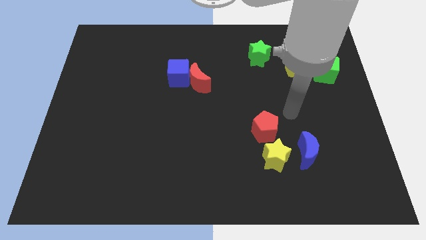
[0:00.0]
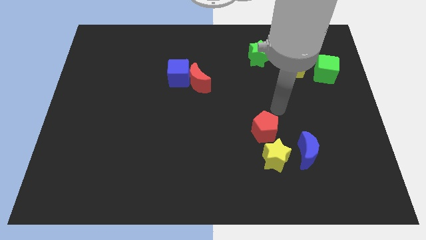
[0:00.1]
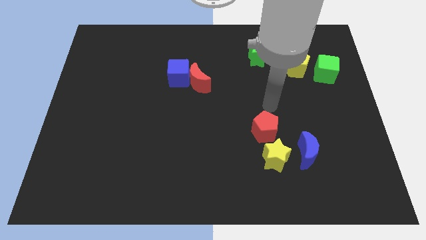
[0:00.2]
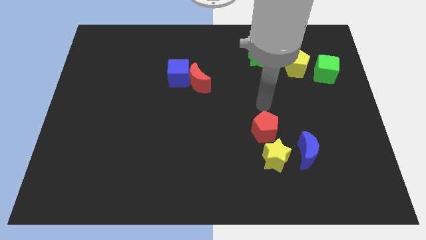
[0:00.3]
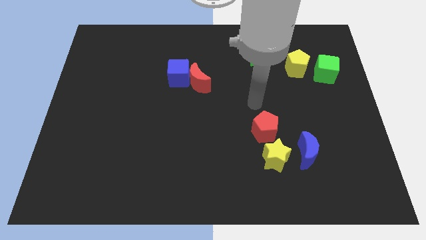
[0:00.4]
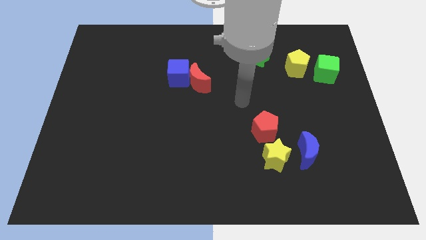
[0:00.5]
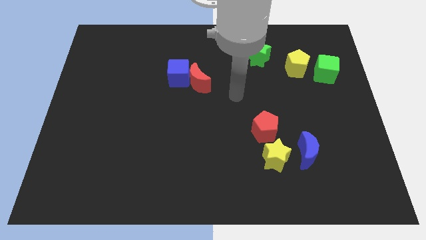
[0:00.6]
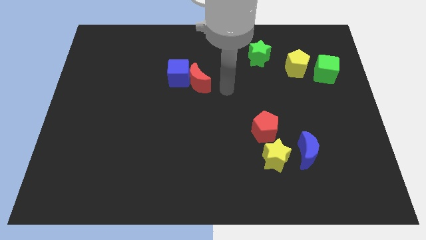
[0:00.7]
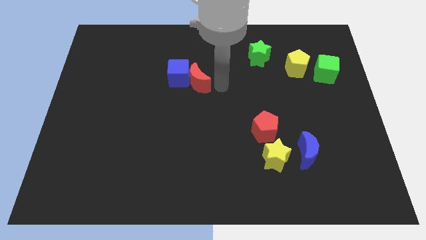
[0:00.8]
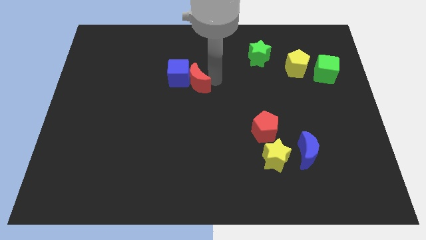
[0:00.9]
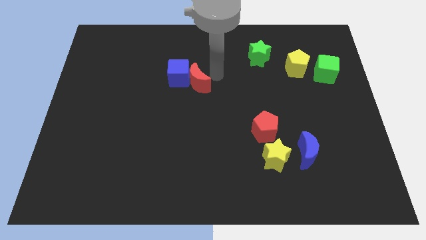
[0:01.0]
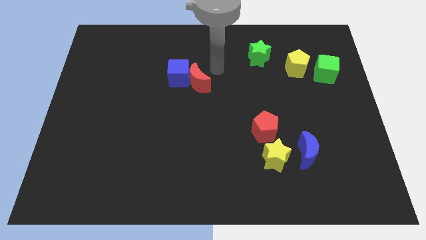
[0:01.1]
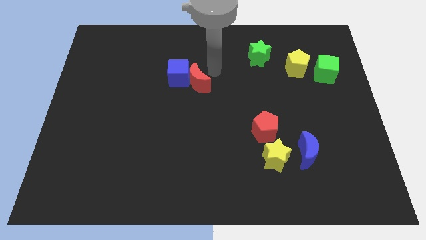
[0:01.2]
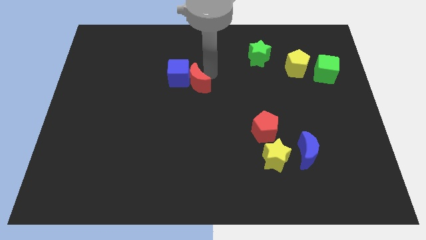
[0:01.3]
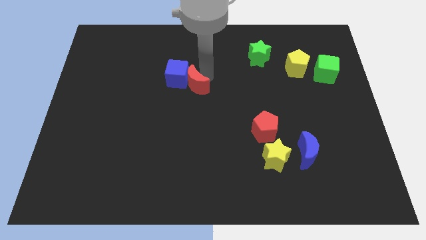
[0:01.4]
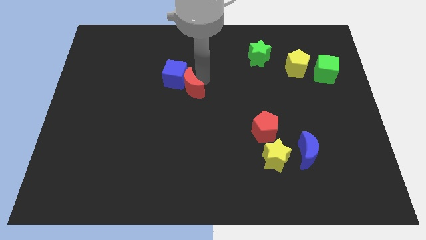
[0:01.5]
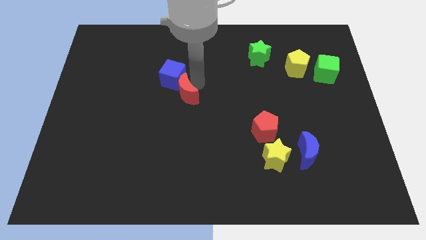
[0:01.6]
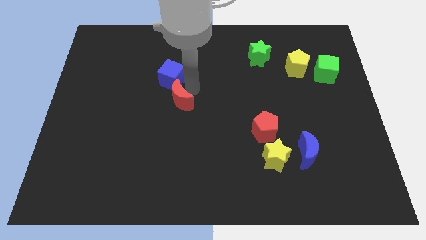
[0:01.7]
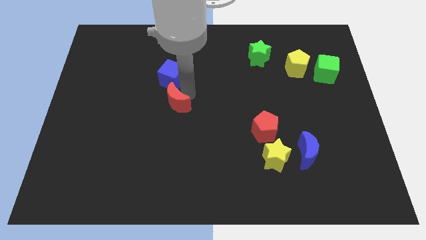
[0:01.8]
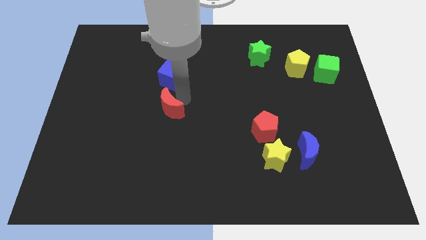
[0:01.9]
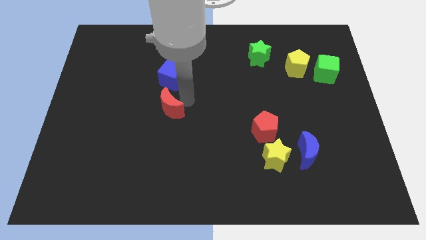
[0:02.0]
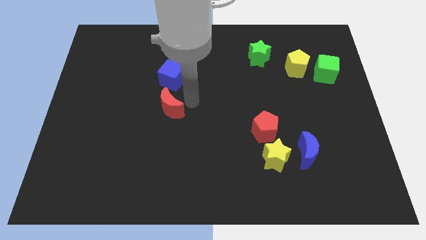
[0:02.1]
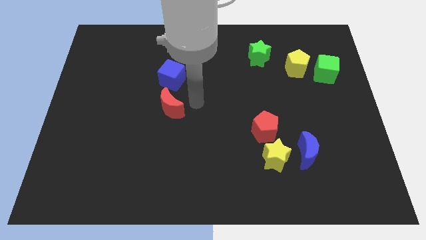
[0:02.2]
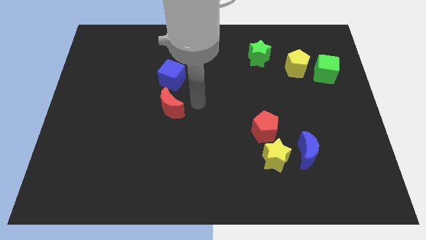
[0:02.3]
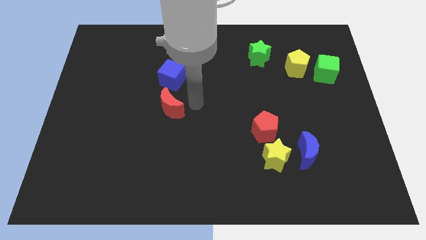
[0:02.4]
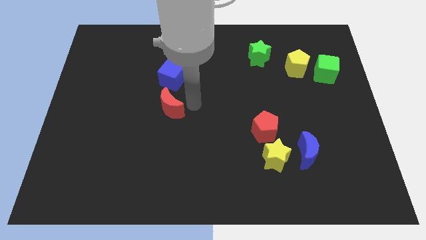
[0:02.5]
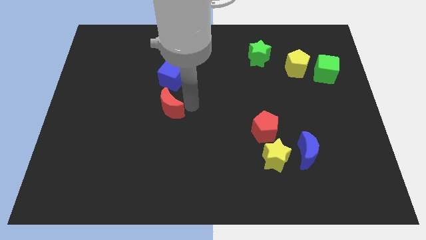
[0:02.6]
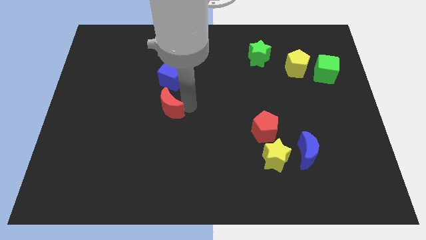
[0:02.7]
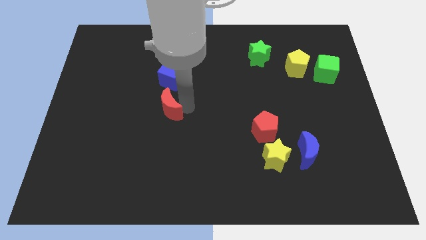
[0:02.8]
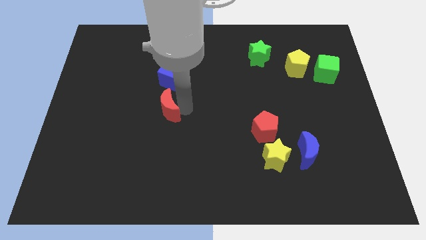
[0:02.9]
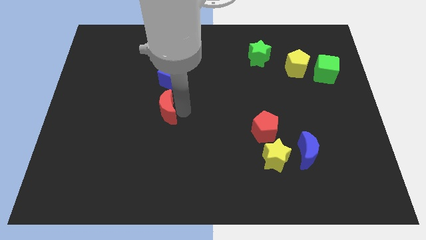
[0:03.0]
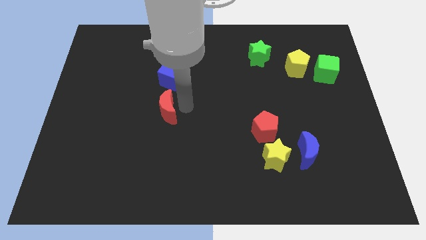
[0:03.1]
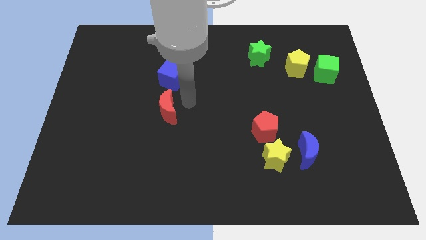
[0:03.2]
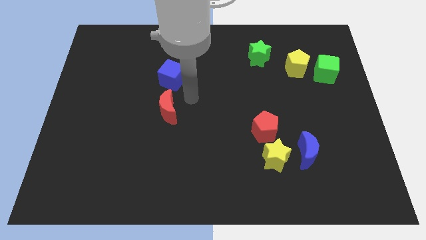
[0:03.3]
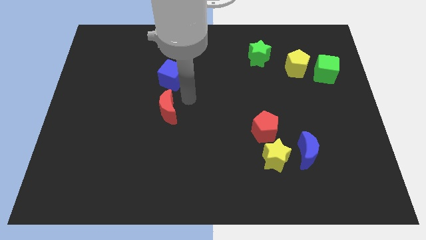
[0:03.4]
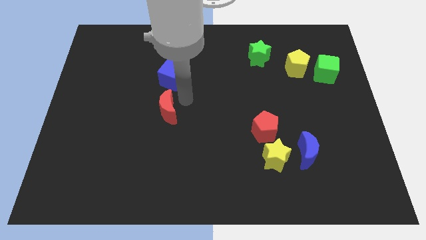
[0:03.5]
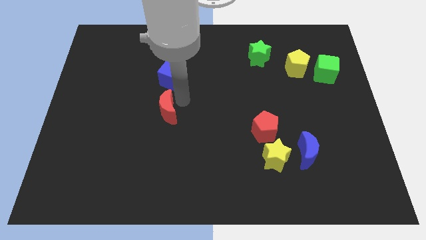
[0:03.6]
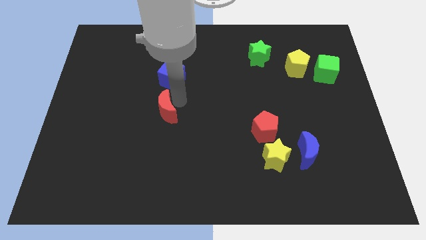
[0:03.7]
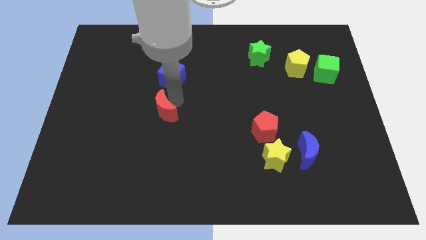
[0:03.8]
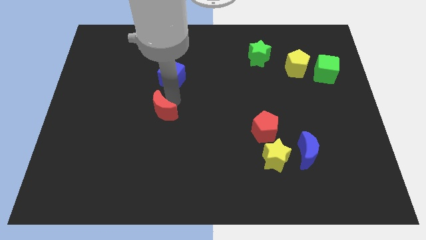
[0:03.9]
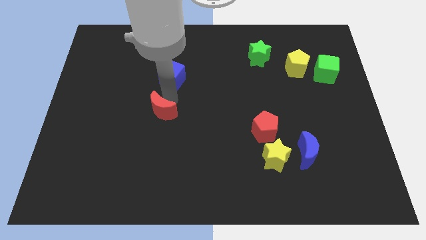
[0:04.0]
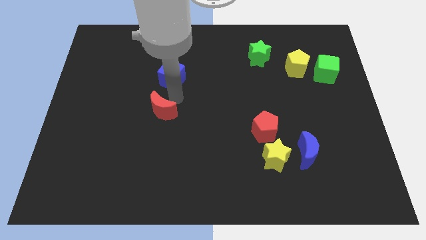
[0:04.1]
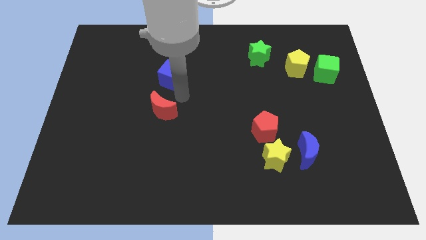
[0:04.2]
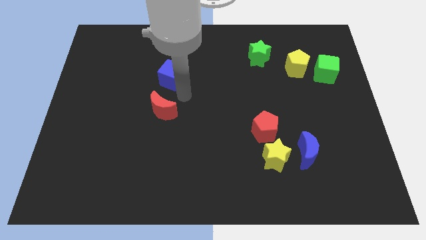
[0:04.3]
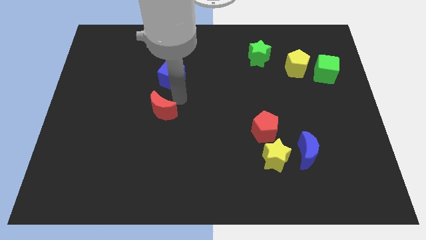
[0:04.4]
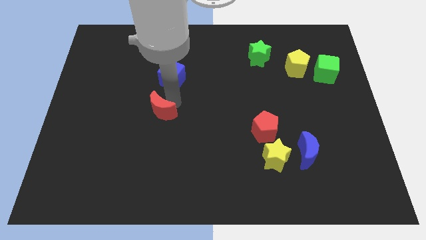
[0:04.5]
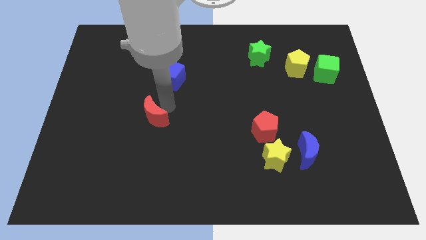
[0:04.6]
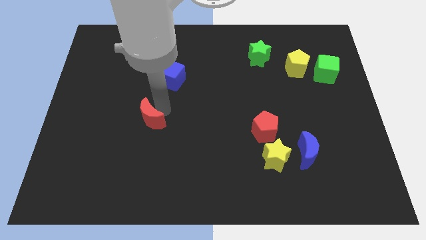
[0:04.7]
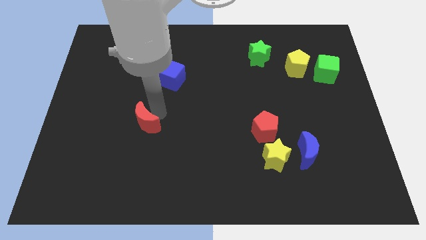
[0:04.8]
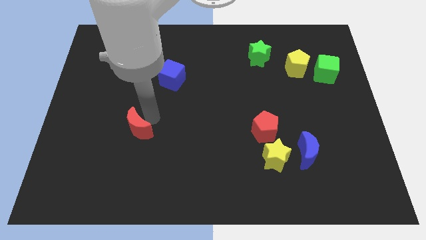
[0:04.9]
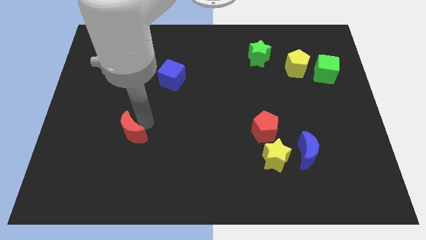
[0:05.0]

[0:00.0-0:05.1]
move the red moon down and left

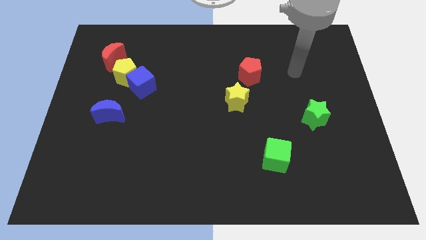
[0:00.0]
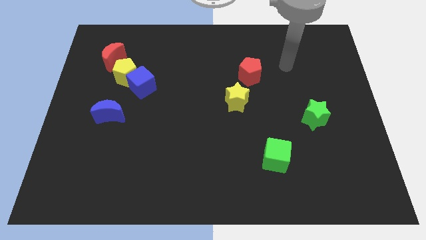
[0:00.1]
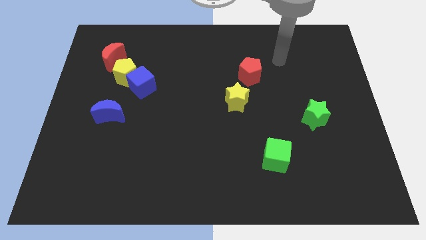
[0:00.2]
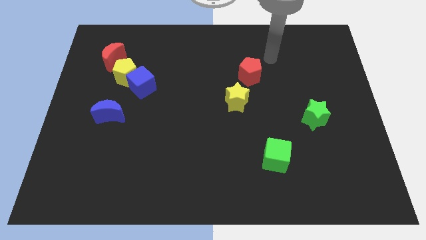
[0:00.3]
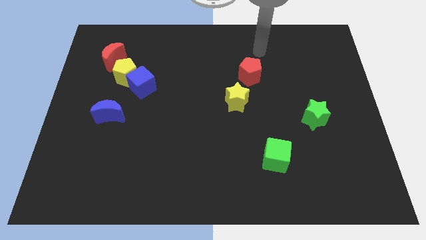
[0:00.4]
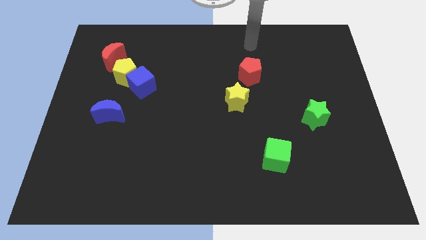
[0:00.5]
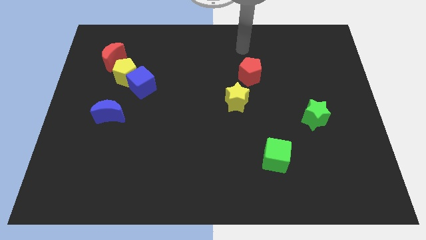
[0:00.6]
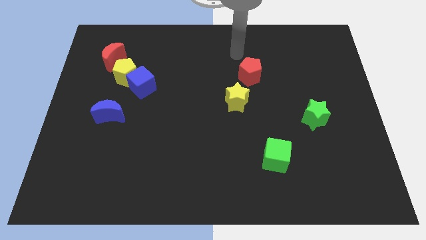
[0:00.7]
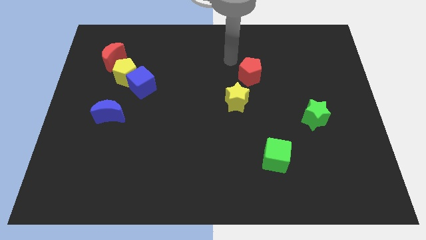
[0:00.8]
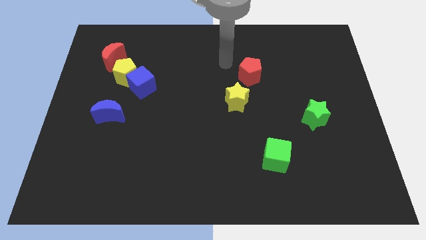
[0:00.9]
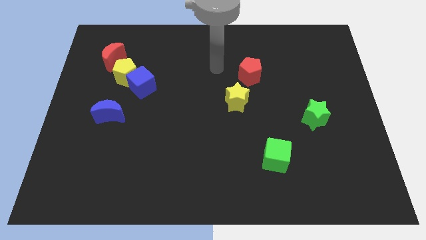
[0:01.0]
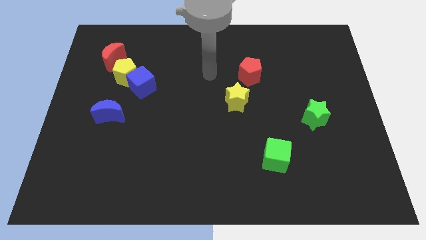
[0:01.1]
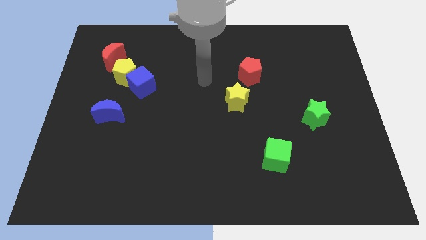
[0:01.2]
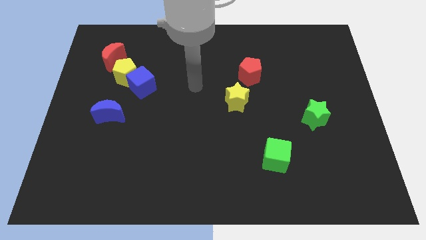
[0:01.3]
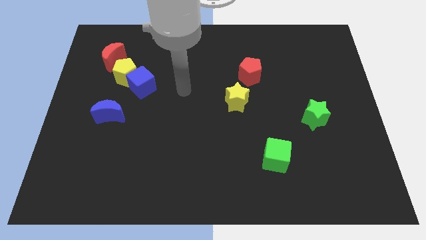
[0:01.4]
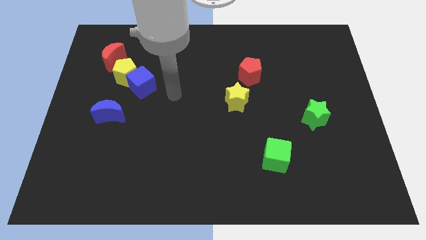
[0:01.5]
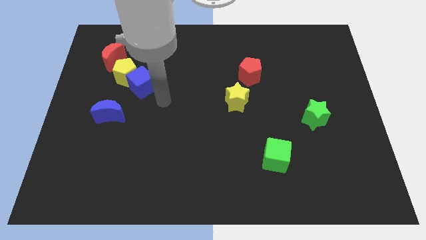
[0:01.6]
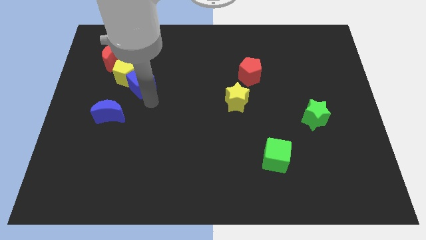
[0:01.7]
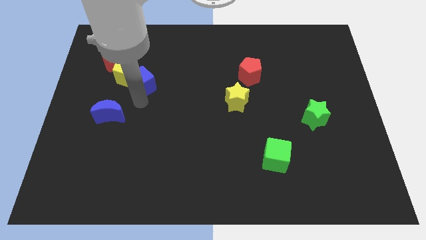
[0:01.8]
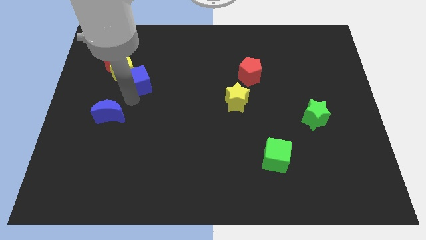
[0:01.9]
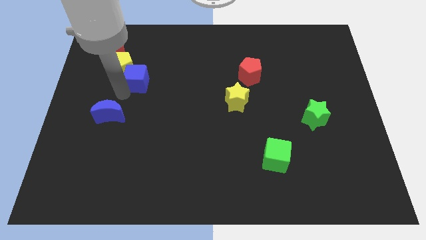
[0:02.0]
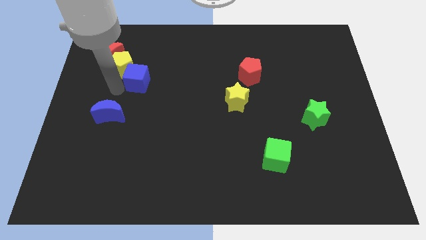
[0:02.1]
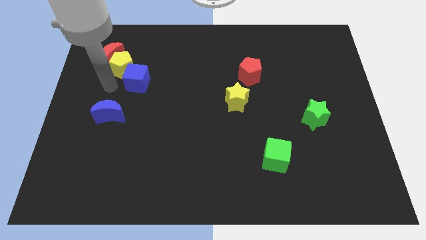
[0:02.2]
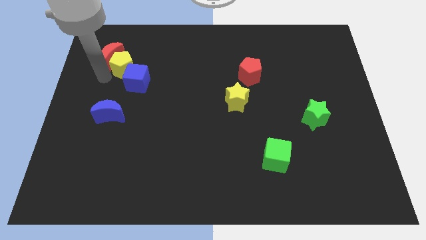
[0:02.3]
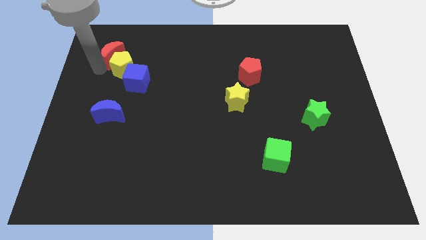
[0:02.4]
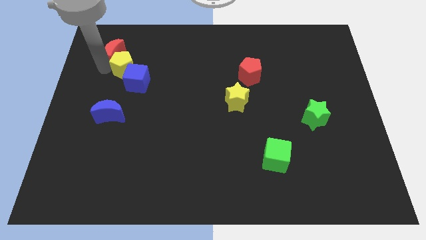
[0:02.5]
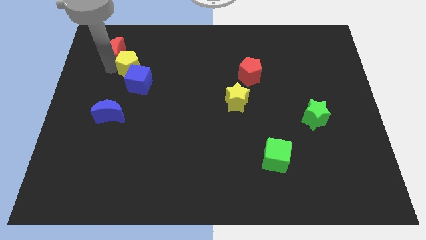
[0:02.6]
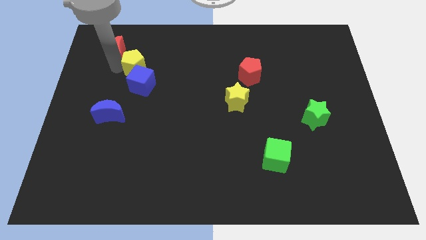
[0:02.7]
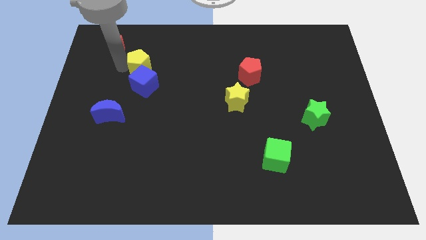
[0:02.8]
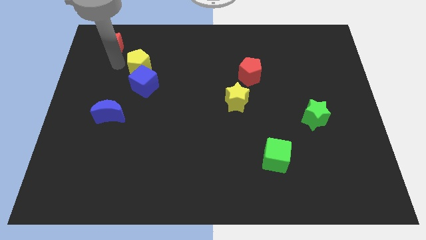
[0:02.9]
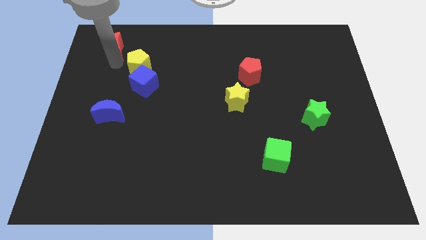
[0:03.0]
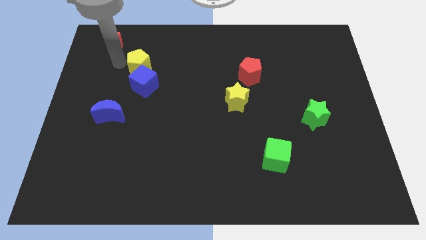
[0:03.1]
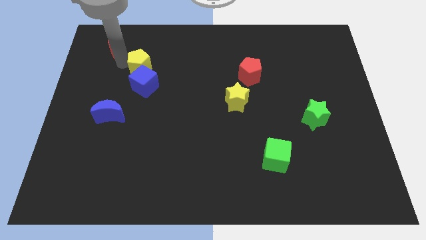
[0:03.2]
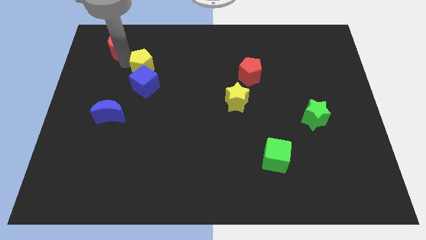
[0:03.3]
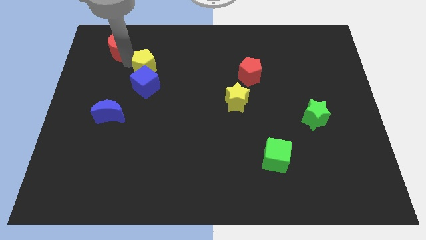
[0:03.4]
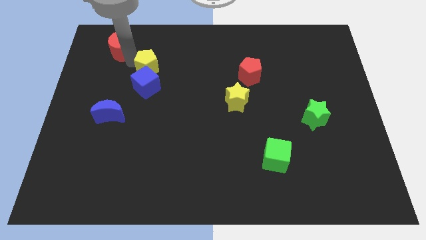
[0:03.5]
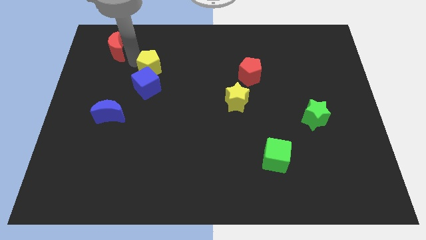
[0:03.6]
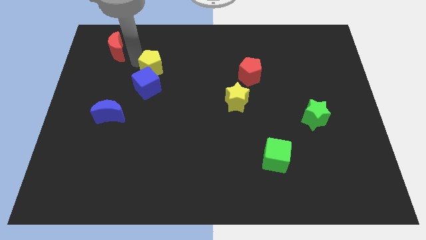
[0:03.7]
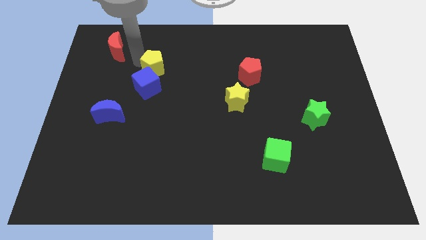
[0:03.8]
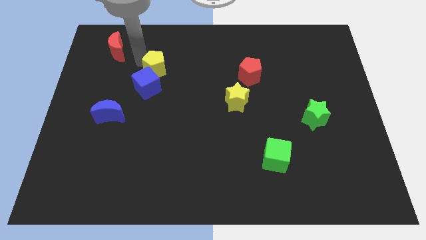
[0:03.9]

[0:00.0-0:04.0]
slide the yellow pentagon to the right somewhat
